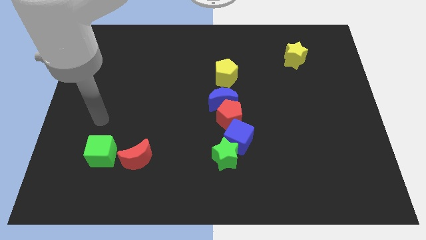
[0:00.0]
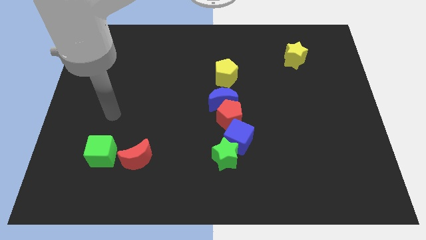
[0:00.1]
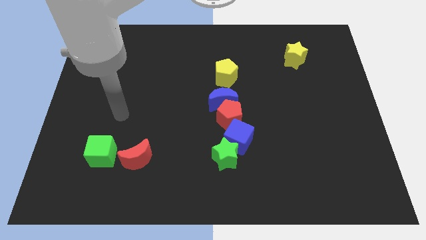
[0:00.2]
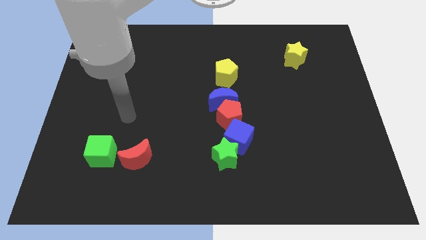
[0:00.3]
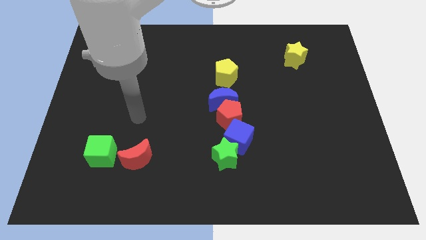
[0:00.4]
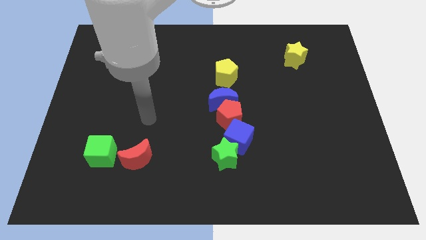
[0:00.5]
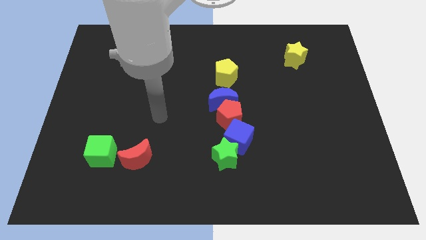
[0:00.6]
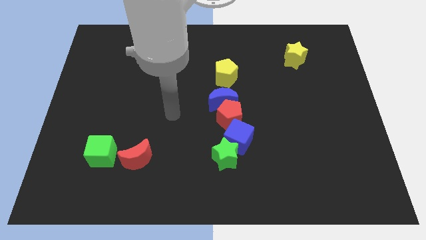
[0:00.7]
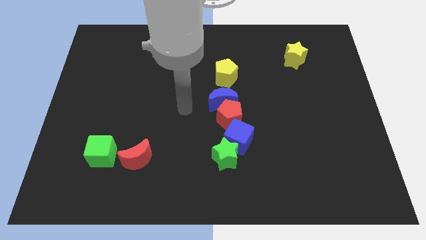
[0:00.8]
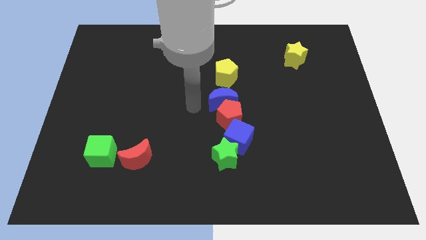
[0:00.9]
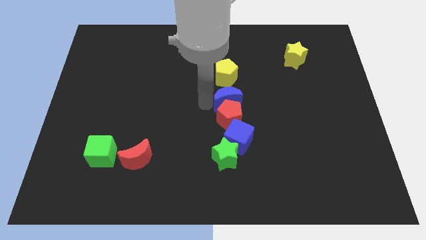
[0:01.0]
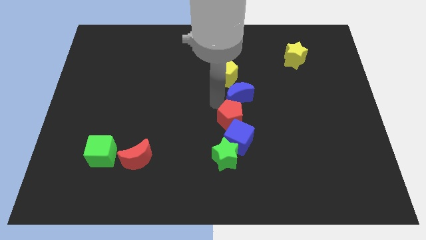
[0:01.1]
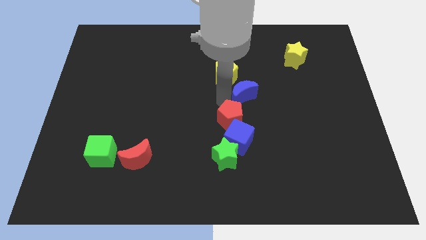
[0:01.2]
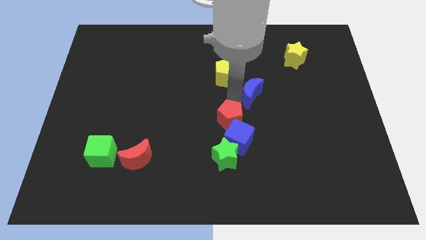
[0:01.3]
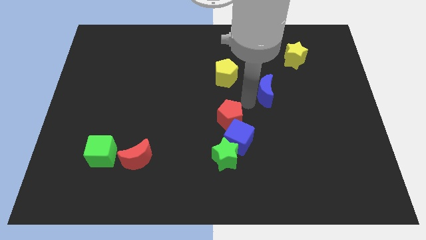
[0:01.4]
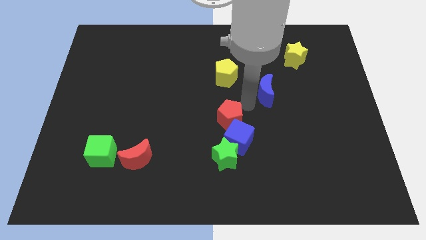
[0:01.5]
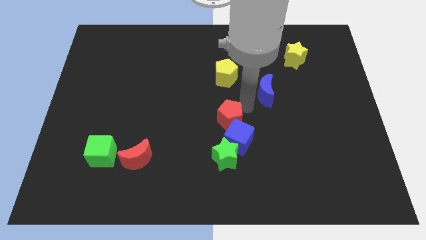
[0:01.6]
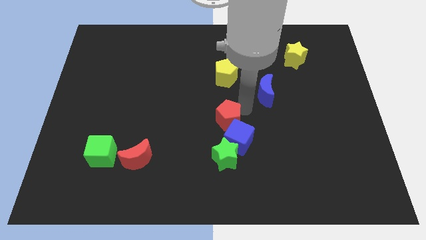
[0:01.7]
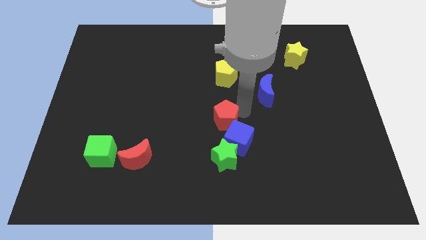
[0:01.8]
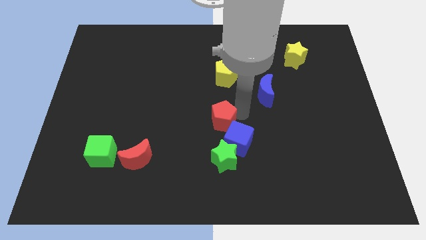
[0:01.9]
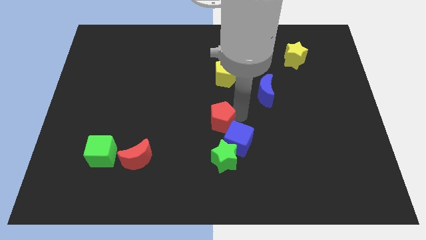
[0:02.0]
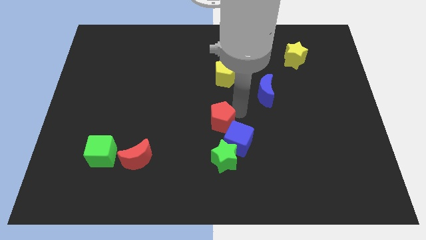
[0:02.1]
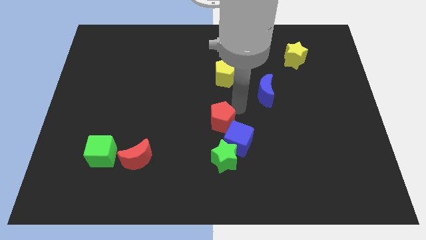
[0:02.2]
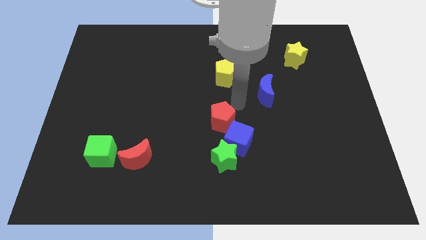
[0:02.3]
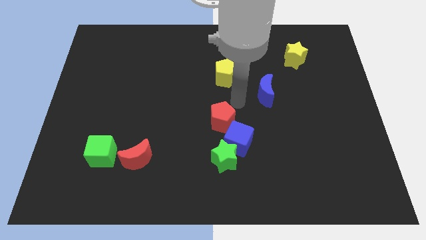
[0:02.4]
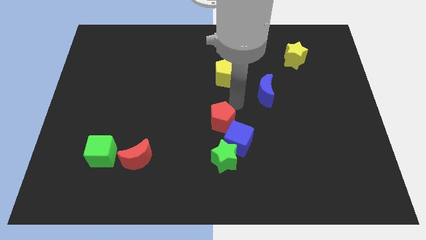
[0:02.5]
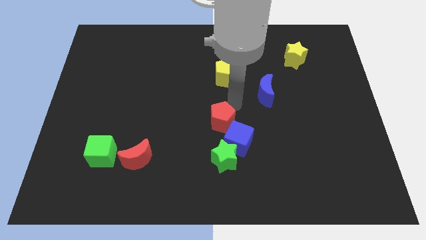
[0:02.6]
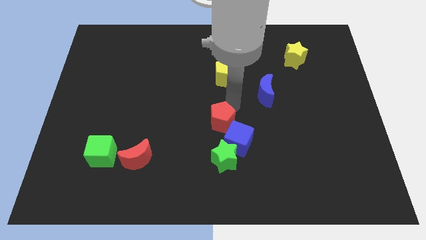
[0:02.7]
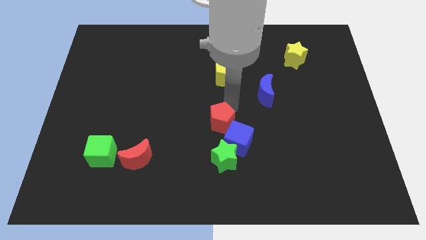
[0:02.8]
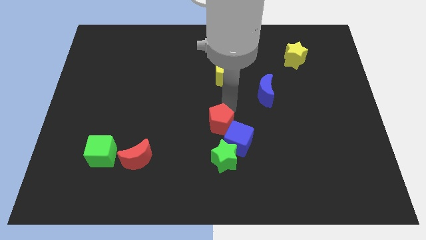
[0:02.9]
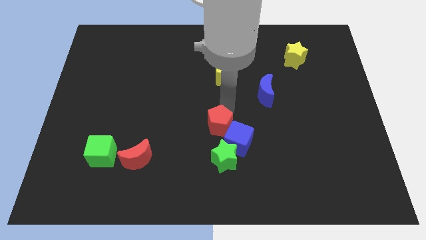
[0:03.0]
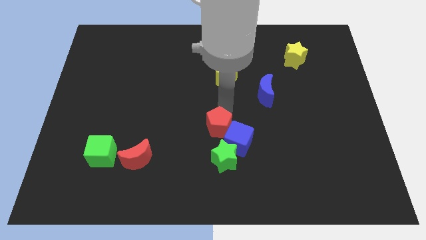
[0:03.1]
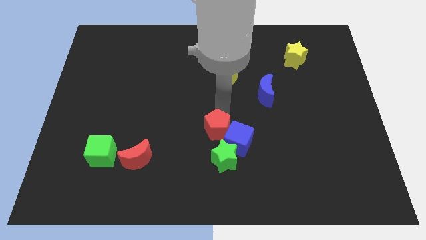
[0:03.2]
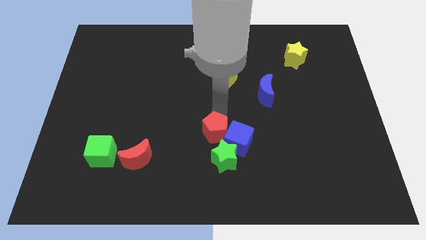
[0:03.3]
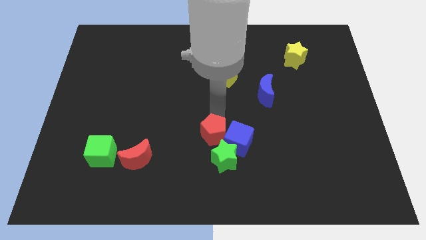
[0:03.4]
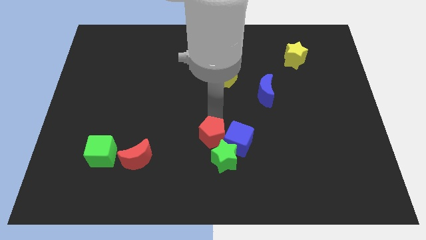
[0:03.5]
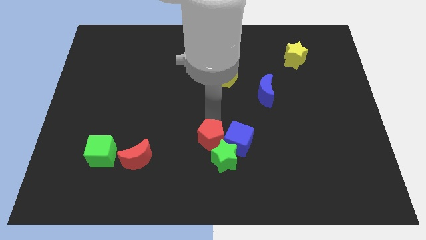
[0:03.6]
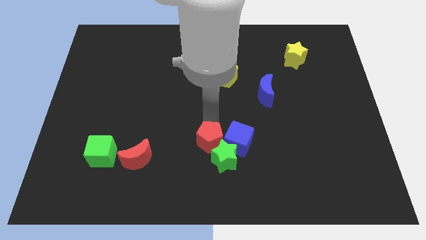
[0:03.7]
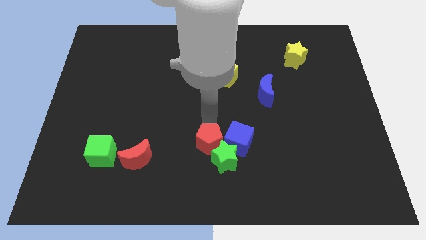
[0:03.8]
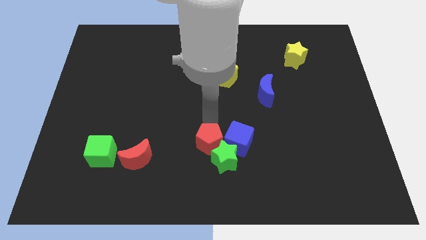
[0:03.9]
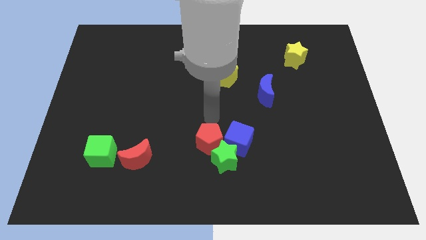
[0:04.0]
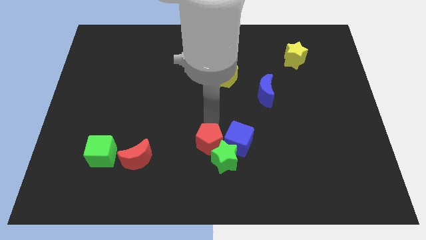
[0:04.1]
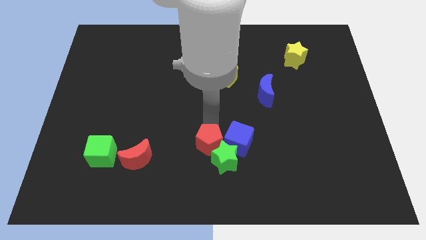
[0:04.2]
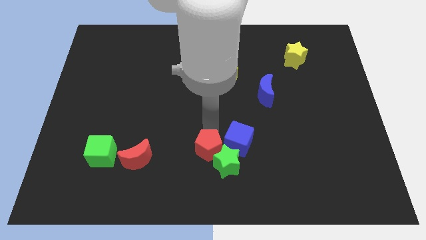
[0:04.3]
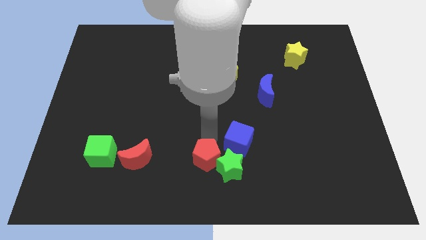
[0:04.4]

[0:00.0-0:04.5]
push the red pentagon to the bottom

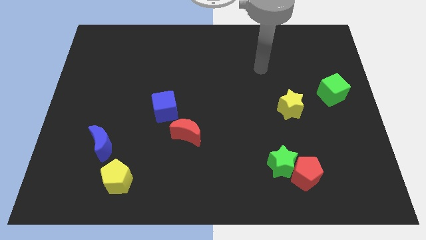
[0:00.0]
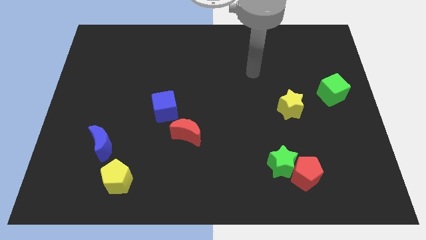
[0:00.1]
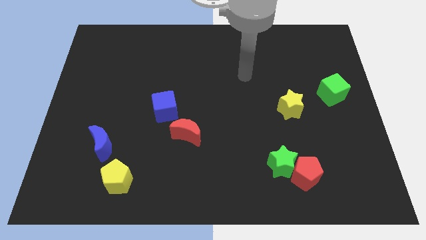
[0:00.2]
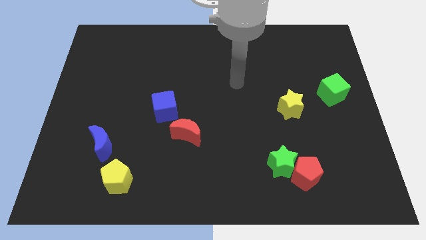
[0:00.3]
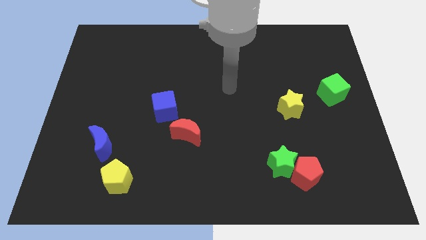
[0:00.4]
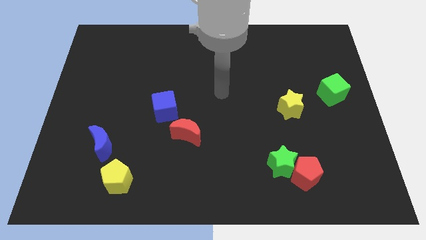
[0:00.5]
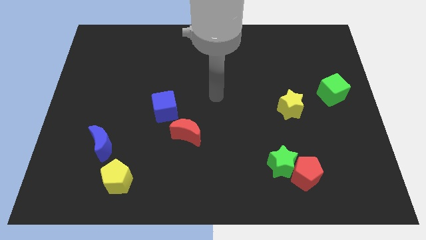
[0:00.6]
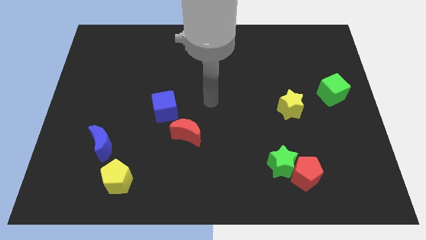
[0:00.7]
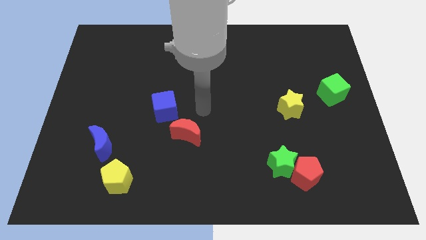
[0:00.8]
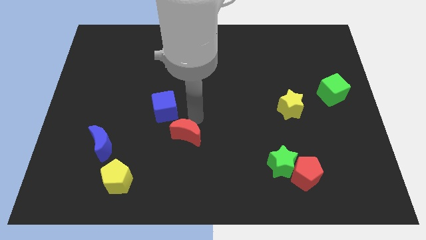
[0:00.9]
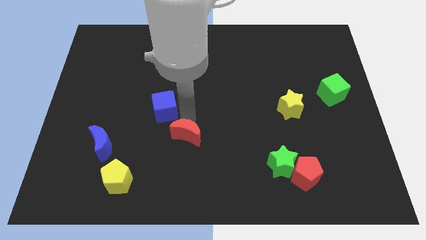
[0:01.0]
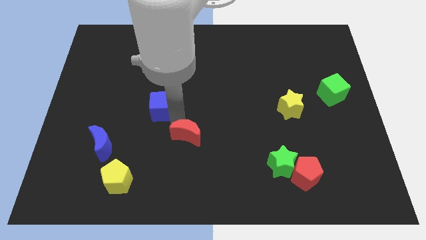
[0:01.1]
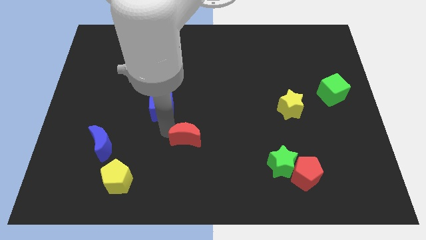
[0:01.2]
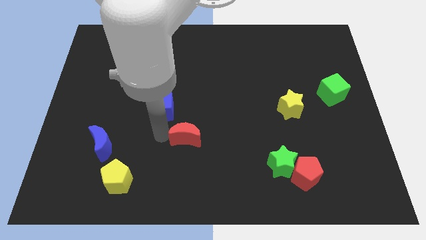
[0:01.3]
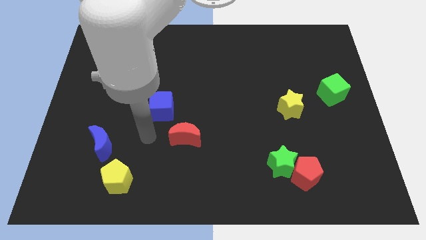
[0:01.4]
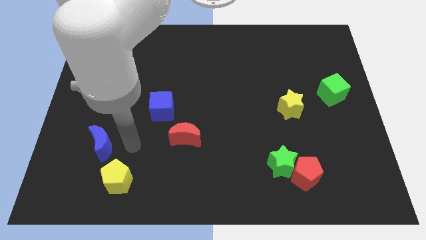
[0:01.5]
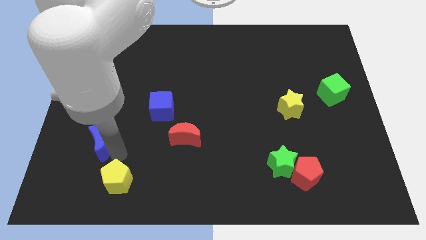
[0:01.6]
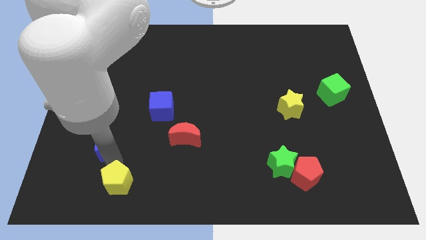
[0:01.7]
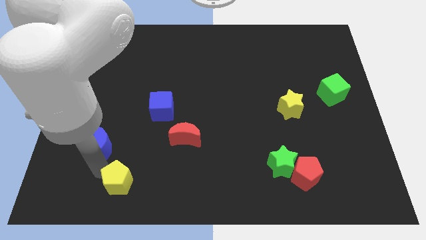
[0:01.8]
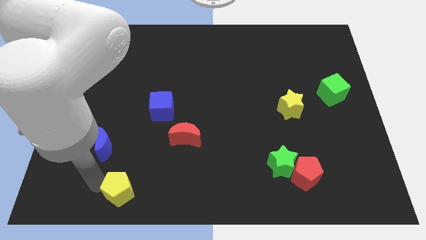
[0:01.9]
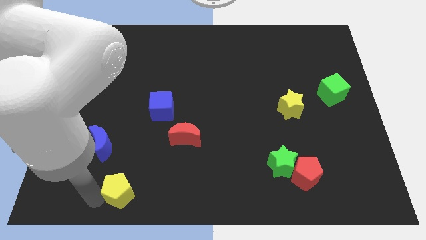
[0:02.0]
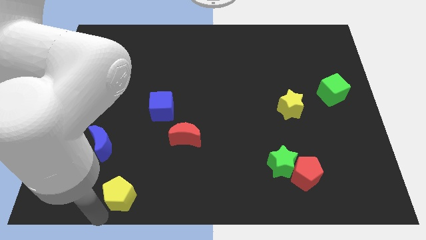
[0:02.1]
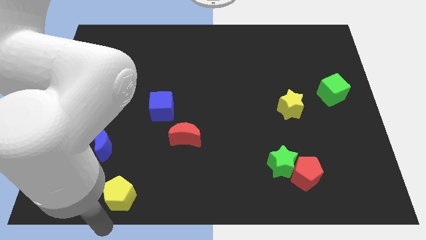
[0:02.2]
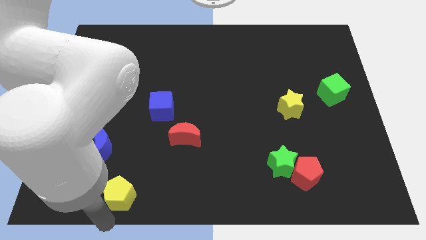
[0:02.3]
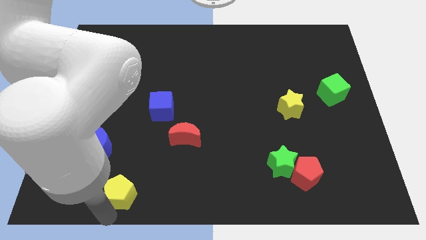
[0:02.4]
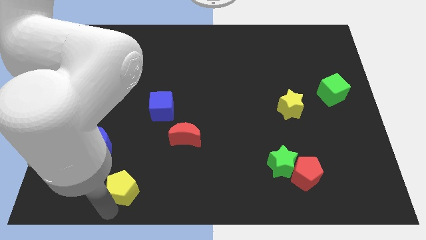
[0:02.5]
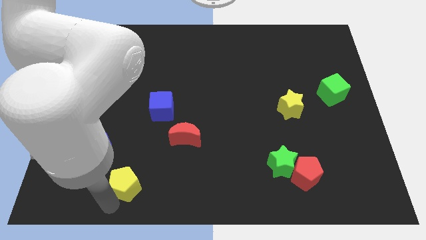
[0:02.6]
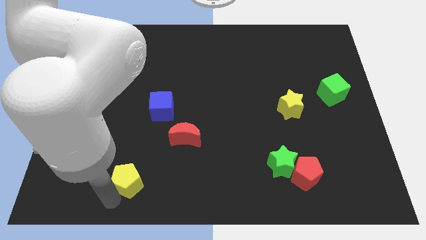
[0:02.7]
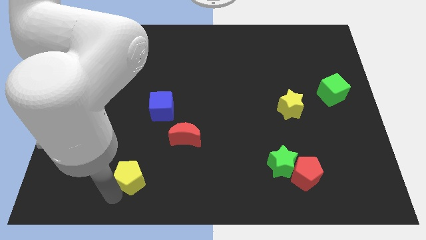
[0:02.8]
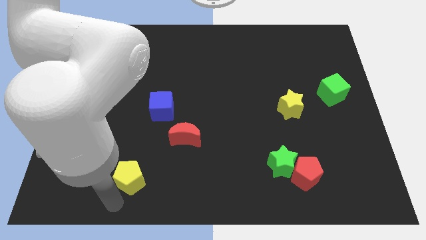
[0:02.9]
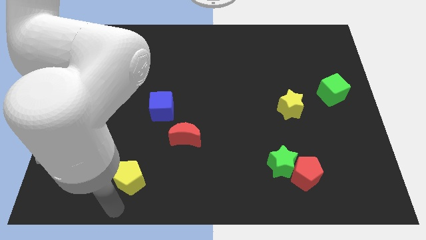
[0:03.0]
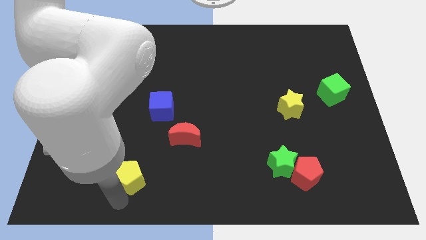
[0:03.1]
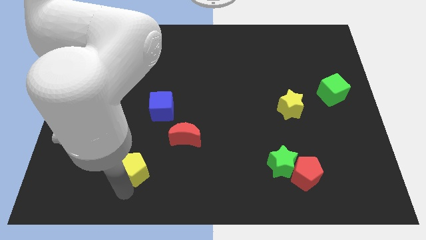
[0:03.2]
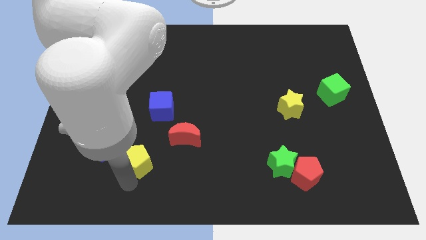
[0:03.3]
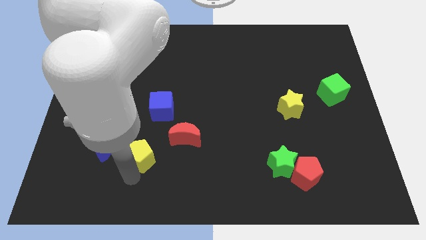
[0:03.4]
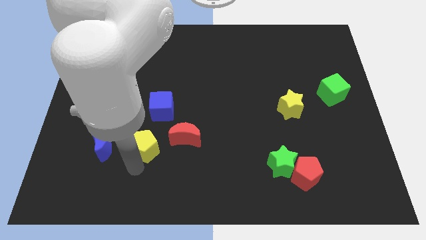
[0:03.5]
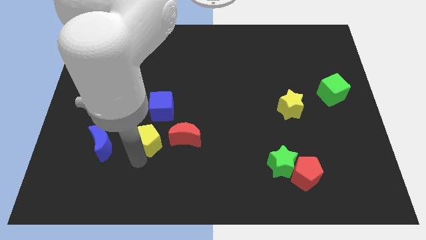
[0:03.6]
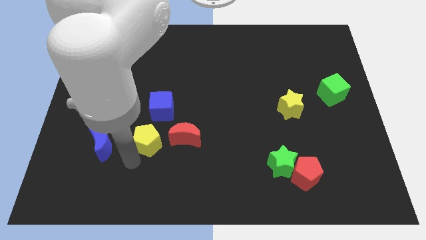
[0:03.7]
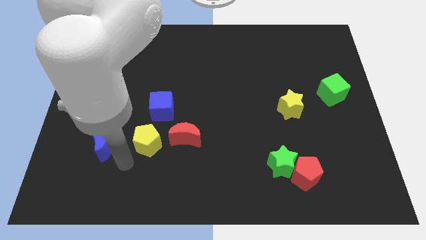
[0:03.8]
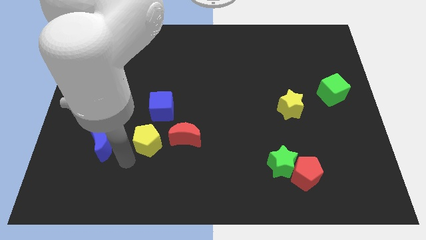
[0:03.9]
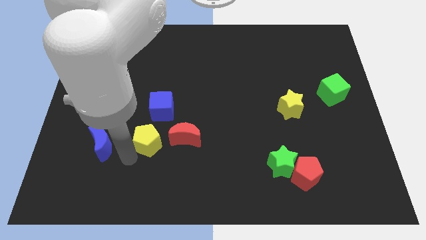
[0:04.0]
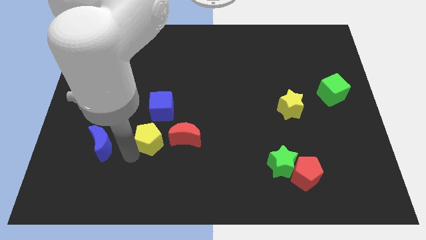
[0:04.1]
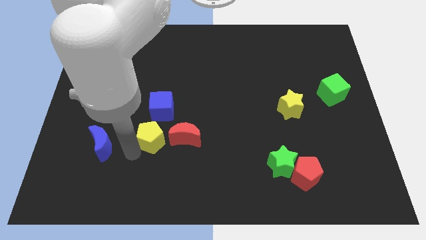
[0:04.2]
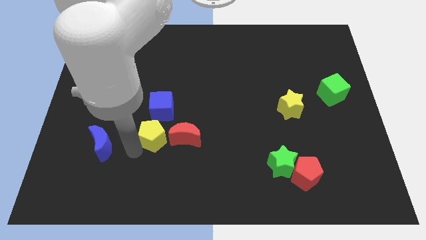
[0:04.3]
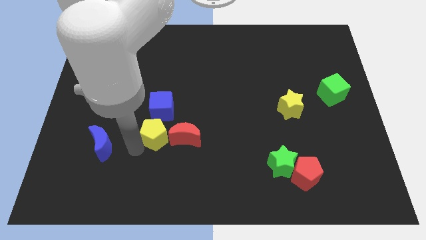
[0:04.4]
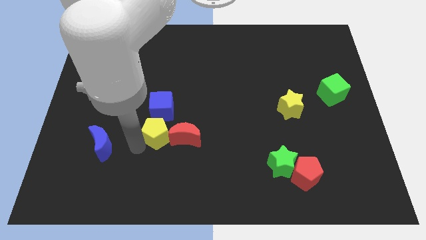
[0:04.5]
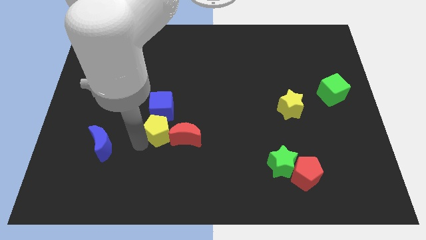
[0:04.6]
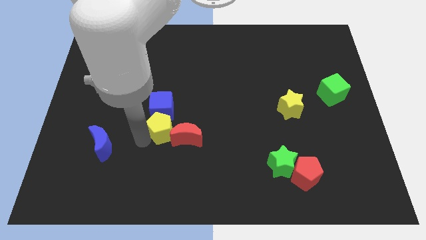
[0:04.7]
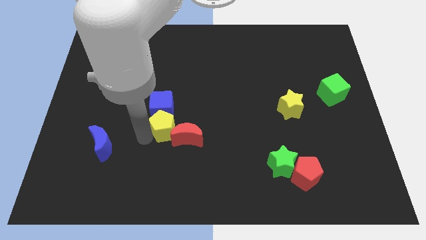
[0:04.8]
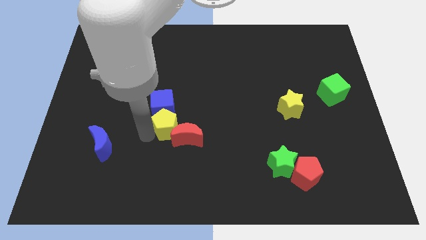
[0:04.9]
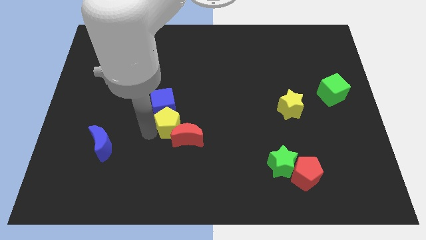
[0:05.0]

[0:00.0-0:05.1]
slide the yellow pentagon to the middle
